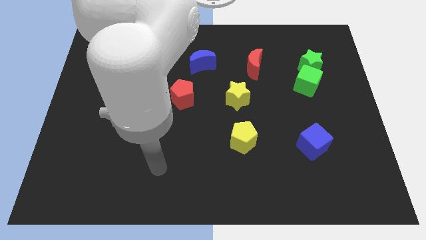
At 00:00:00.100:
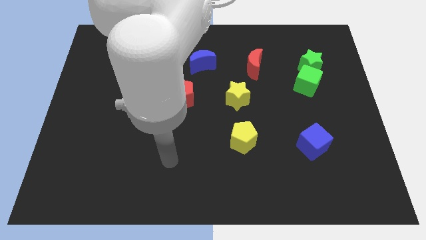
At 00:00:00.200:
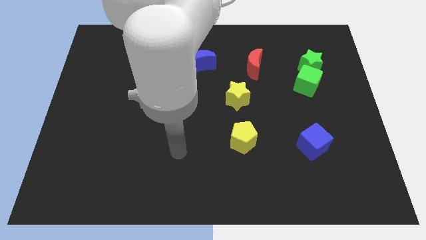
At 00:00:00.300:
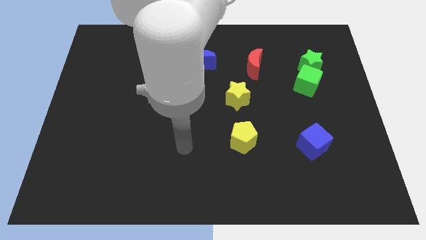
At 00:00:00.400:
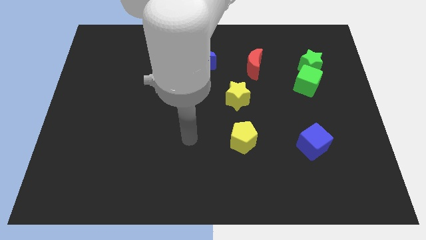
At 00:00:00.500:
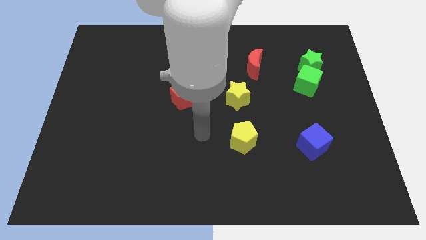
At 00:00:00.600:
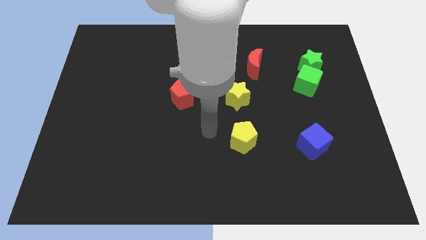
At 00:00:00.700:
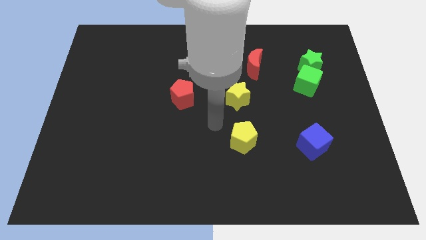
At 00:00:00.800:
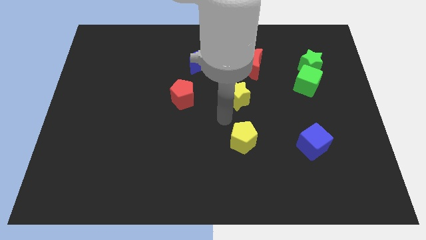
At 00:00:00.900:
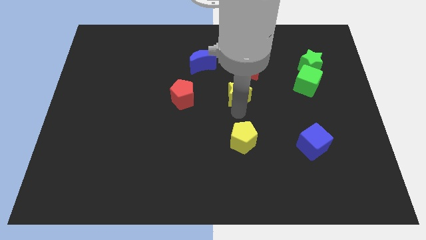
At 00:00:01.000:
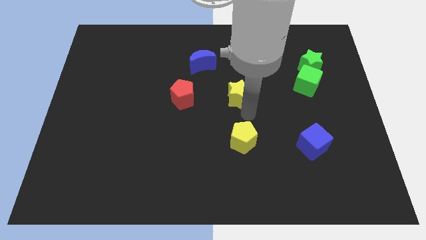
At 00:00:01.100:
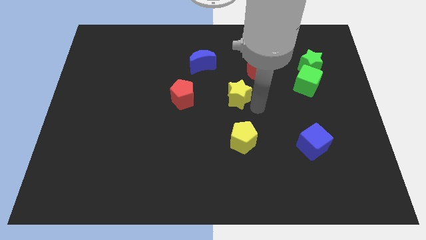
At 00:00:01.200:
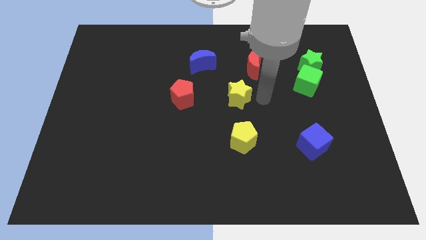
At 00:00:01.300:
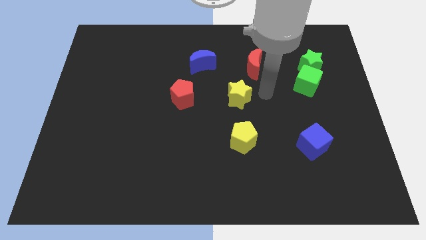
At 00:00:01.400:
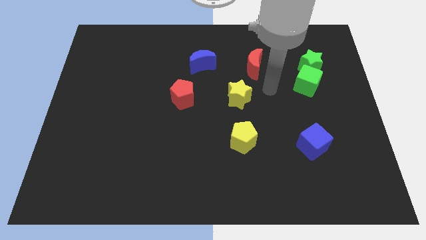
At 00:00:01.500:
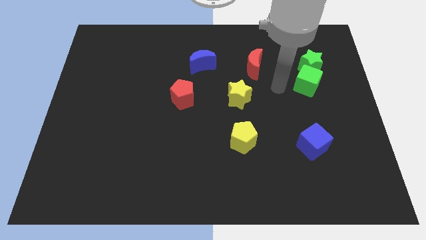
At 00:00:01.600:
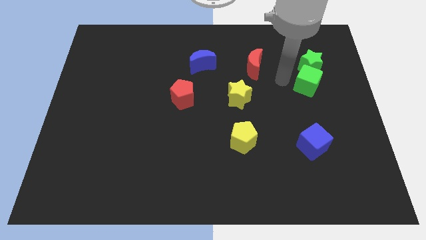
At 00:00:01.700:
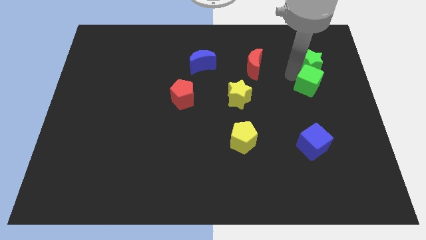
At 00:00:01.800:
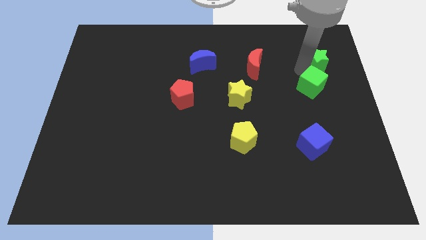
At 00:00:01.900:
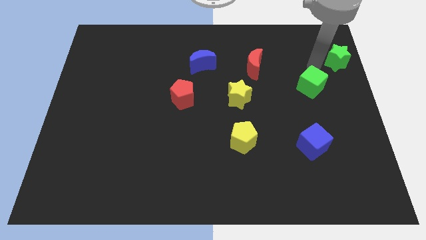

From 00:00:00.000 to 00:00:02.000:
move the green cube away from the green star

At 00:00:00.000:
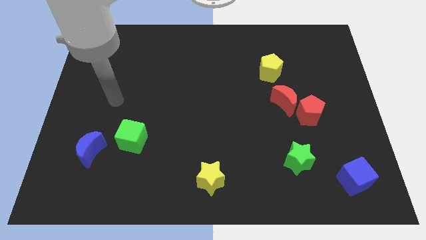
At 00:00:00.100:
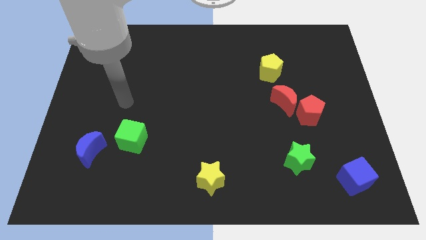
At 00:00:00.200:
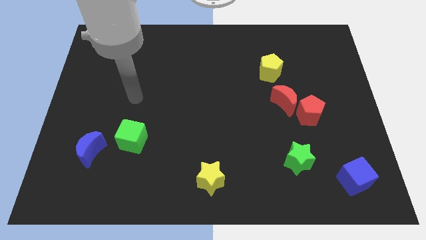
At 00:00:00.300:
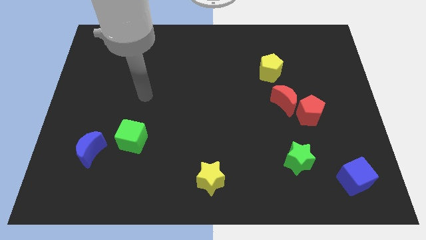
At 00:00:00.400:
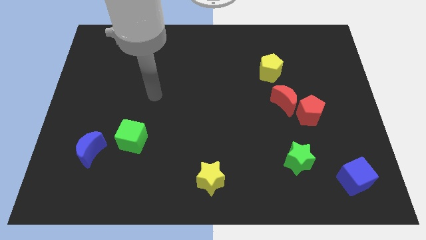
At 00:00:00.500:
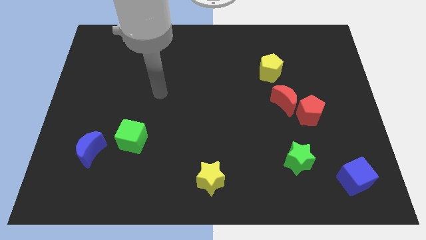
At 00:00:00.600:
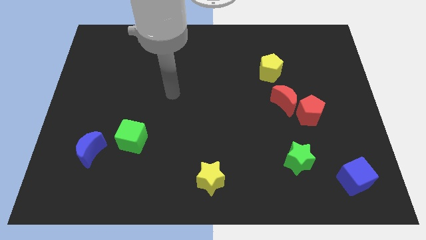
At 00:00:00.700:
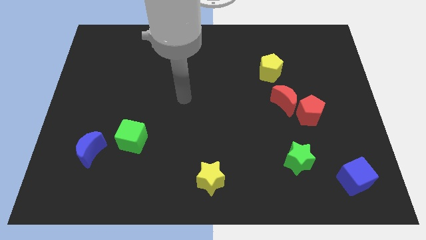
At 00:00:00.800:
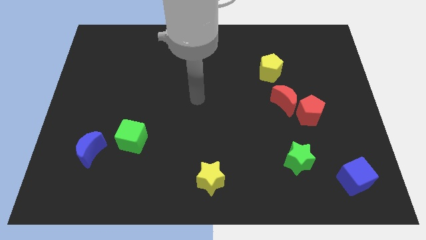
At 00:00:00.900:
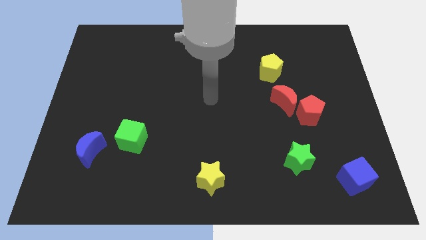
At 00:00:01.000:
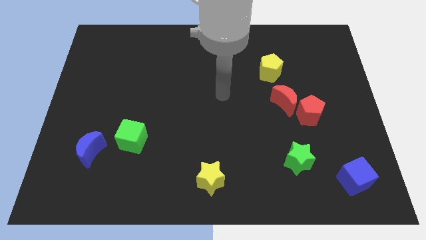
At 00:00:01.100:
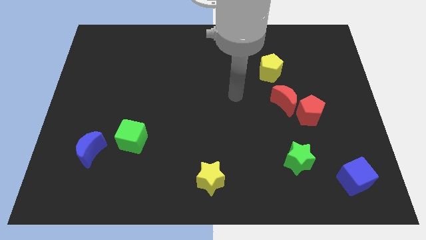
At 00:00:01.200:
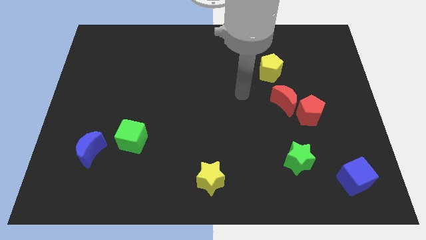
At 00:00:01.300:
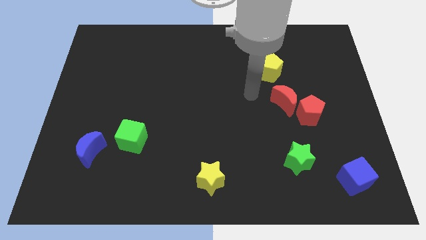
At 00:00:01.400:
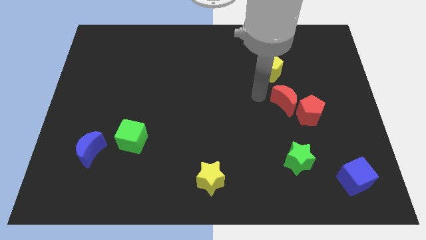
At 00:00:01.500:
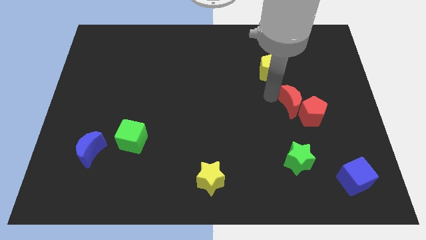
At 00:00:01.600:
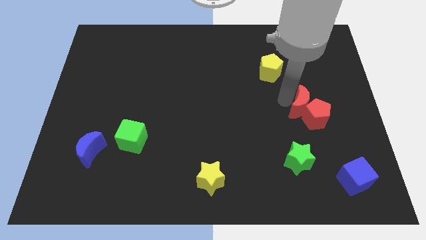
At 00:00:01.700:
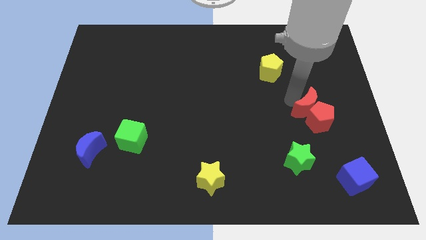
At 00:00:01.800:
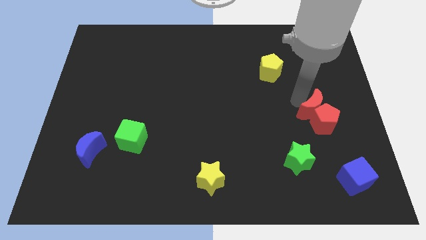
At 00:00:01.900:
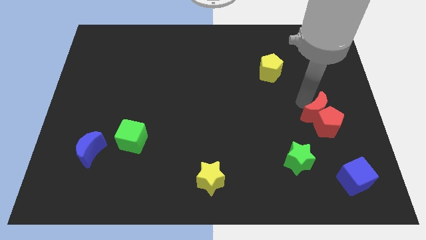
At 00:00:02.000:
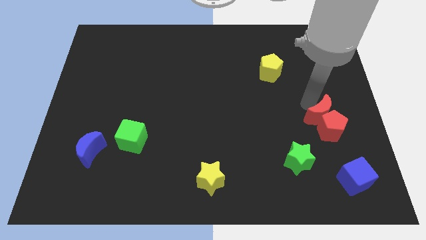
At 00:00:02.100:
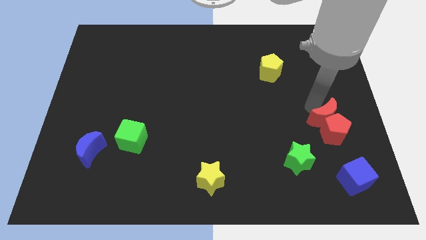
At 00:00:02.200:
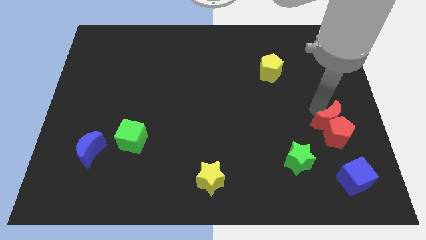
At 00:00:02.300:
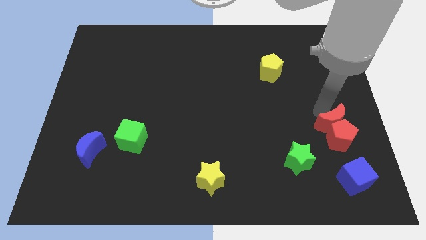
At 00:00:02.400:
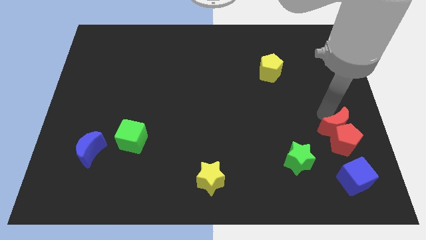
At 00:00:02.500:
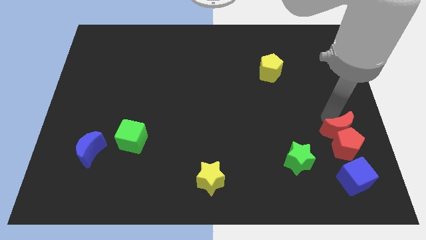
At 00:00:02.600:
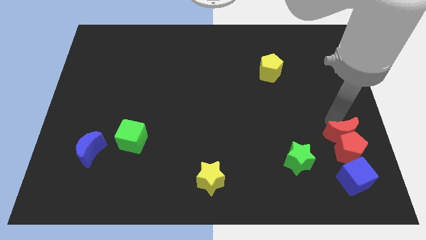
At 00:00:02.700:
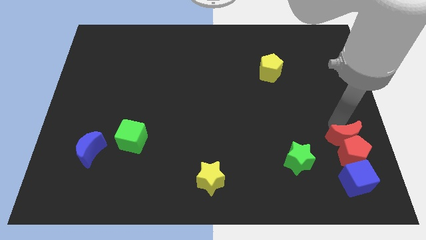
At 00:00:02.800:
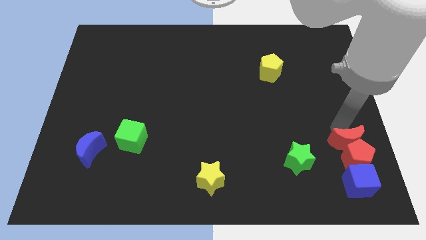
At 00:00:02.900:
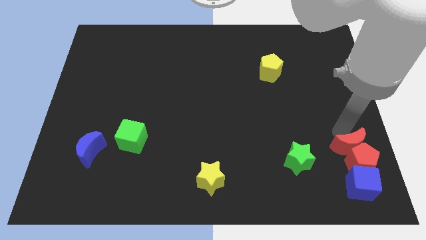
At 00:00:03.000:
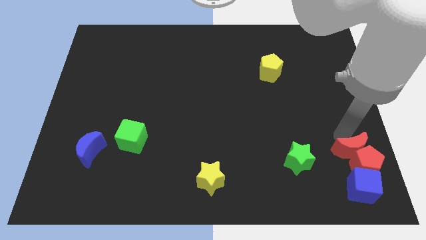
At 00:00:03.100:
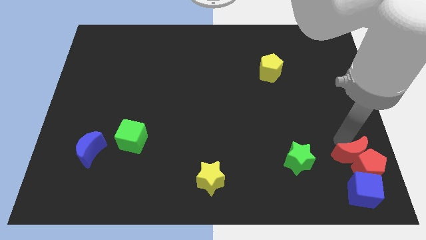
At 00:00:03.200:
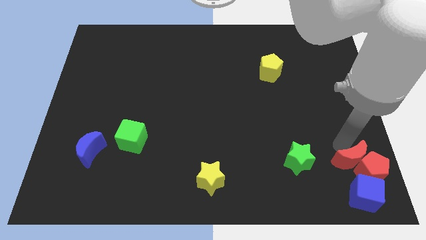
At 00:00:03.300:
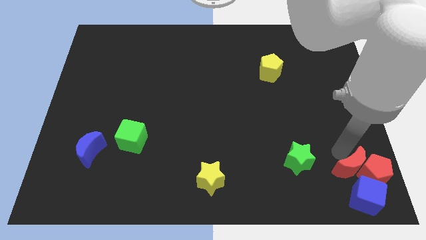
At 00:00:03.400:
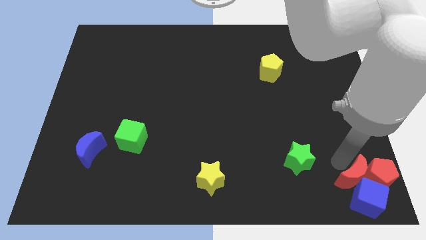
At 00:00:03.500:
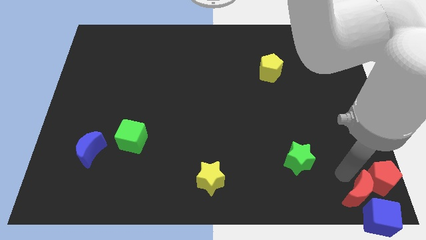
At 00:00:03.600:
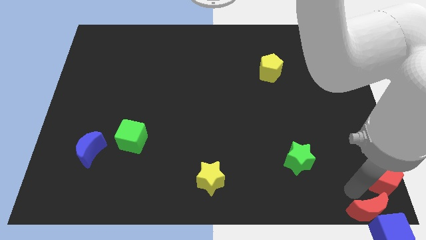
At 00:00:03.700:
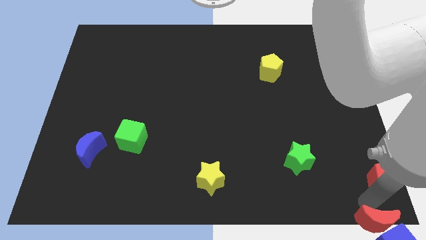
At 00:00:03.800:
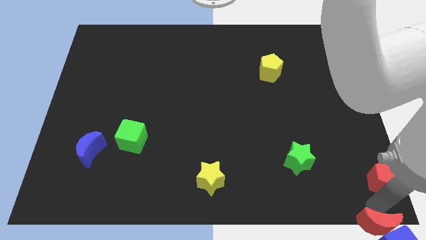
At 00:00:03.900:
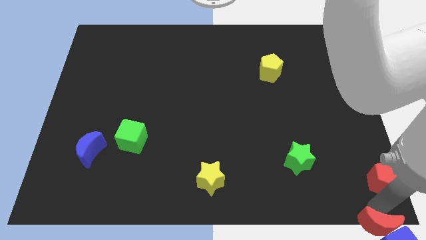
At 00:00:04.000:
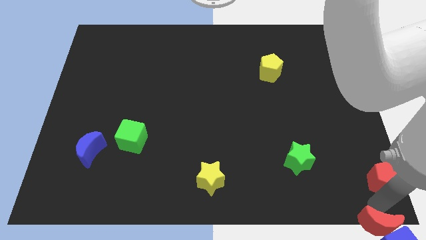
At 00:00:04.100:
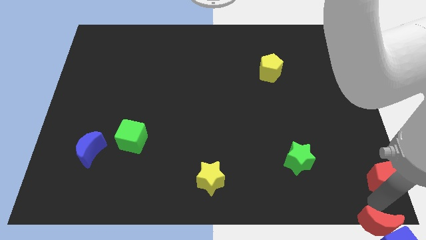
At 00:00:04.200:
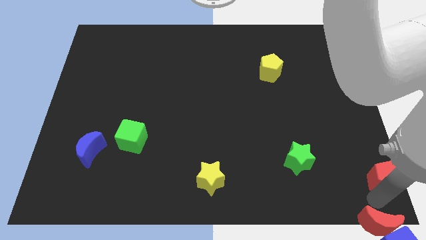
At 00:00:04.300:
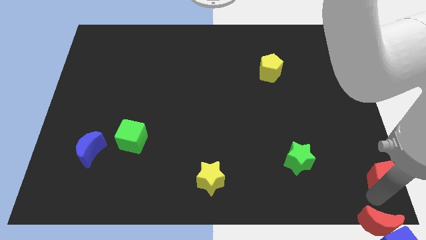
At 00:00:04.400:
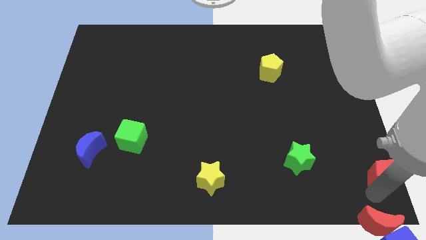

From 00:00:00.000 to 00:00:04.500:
move the red pentagon away from the red moon

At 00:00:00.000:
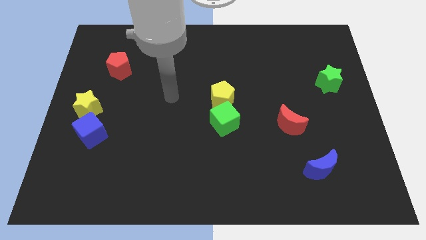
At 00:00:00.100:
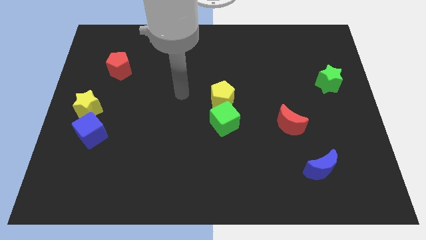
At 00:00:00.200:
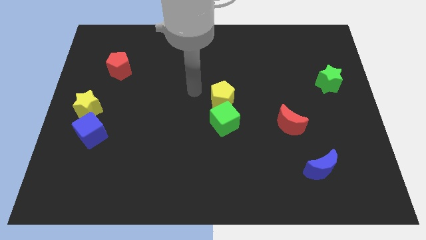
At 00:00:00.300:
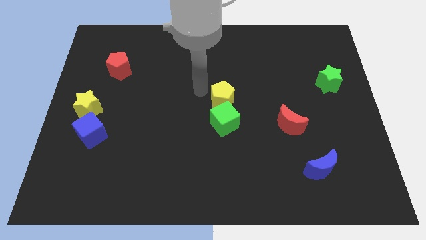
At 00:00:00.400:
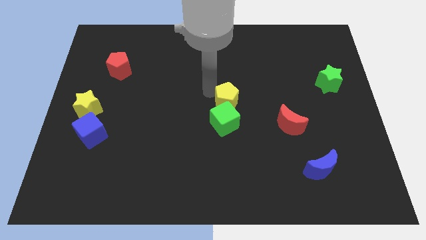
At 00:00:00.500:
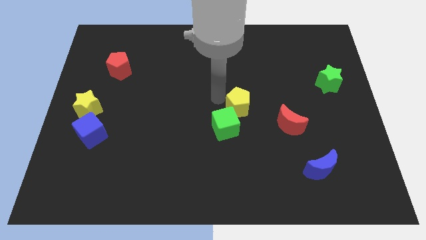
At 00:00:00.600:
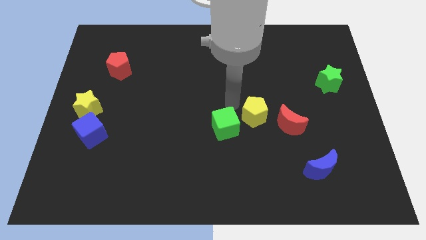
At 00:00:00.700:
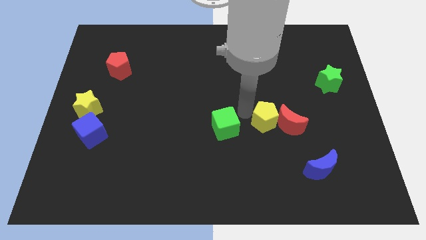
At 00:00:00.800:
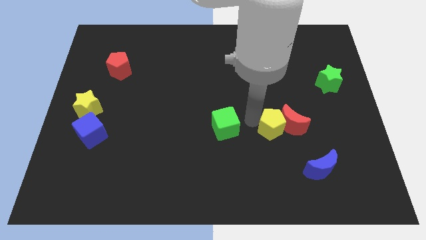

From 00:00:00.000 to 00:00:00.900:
separate the green cube from the yellow pentagon

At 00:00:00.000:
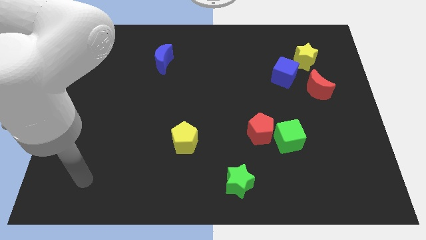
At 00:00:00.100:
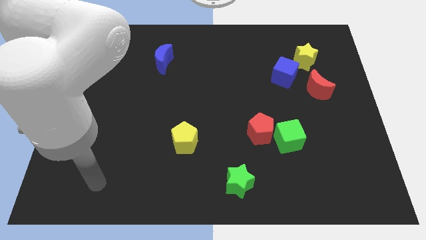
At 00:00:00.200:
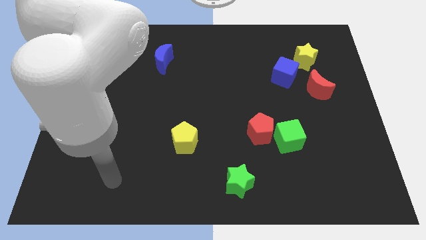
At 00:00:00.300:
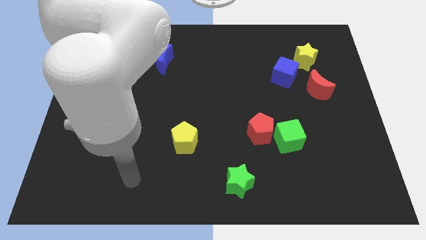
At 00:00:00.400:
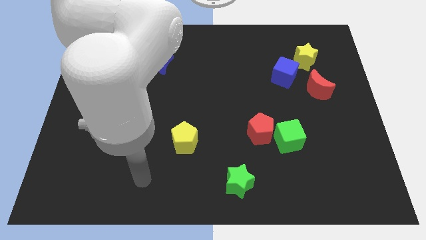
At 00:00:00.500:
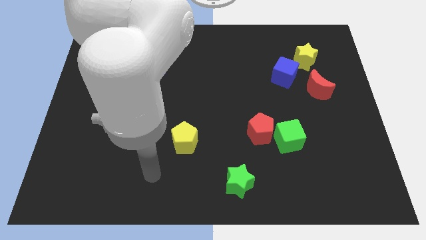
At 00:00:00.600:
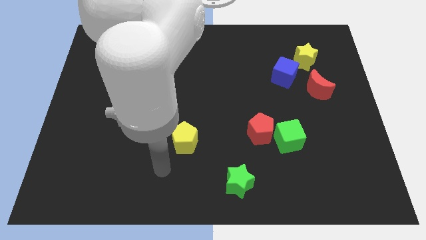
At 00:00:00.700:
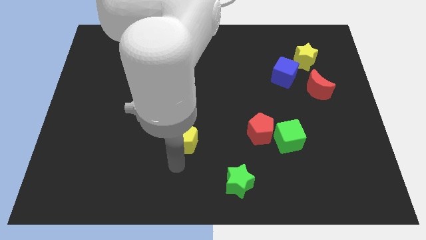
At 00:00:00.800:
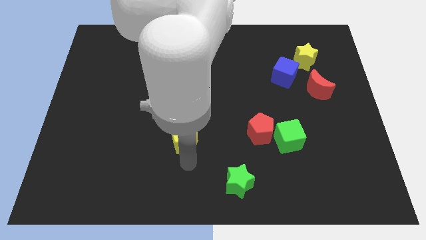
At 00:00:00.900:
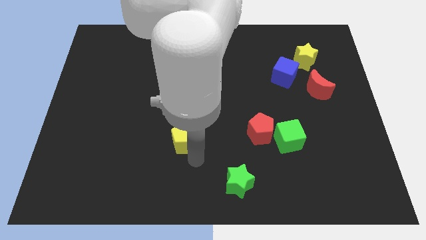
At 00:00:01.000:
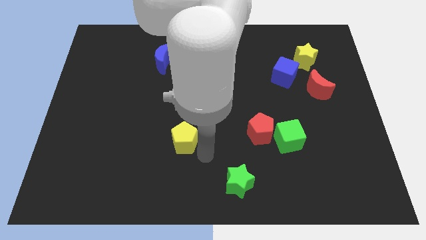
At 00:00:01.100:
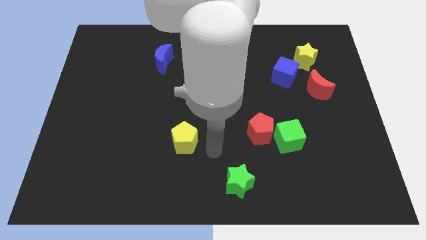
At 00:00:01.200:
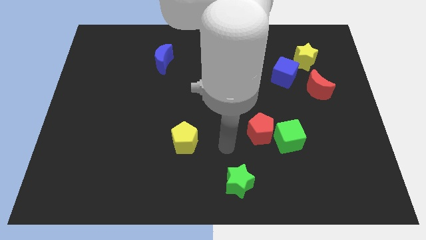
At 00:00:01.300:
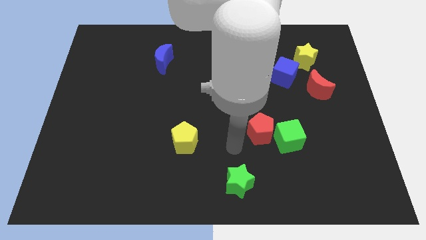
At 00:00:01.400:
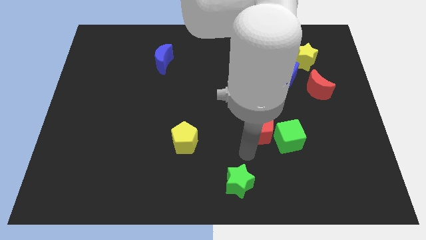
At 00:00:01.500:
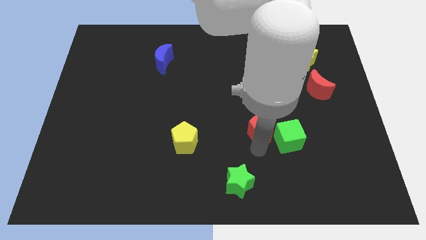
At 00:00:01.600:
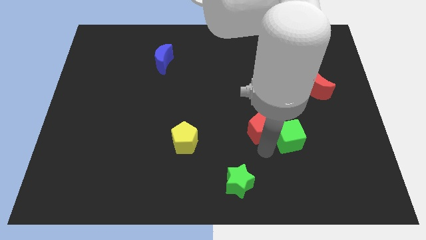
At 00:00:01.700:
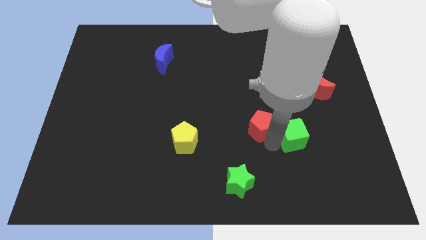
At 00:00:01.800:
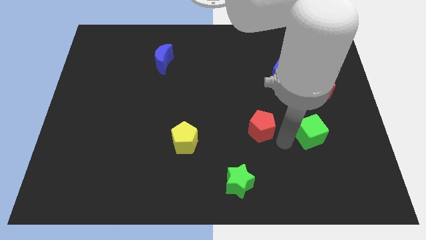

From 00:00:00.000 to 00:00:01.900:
pull the red pentagon apart from the green cube
